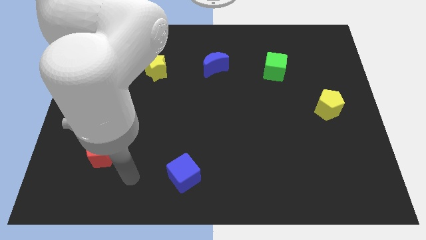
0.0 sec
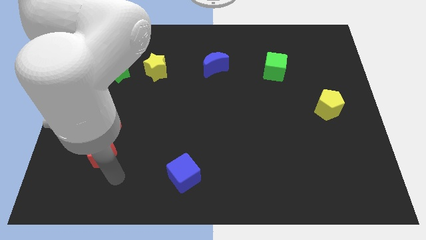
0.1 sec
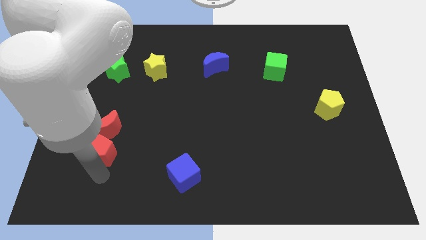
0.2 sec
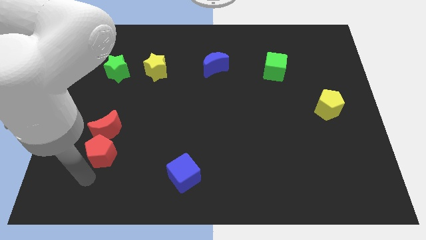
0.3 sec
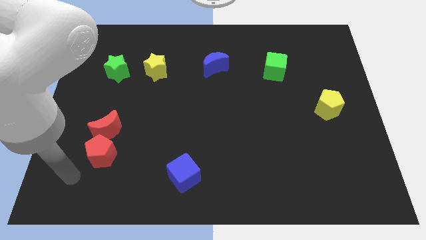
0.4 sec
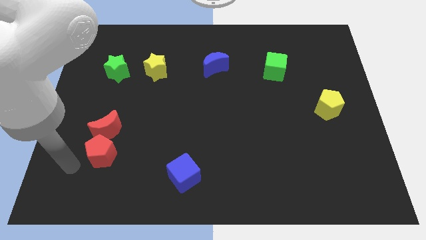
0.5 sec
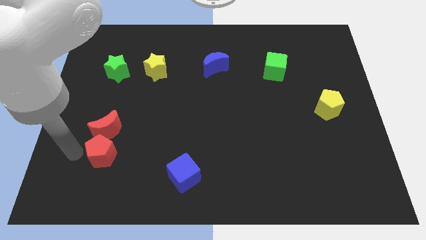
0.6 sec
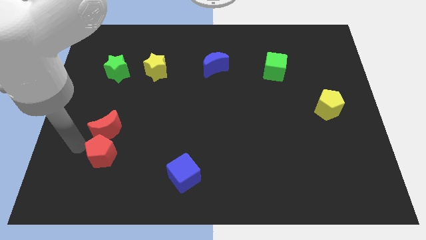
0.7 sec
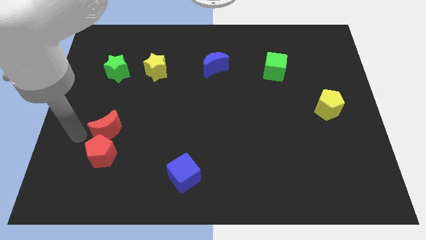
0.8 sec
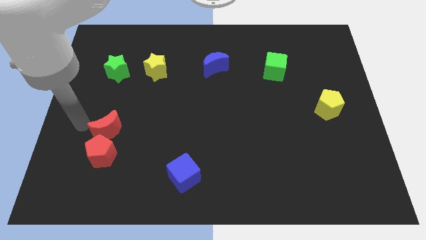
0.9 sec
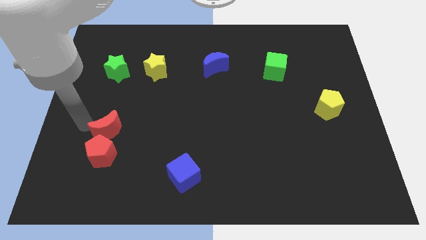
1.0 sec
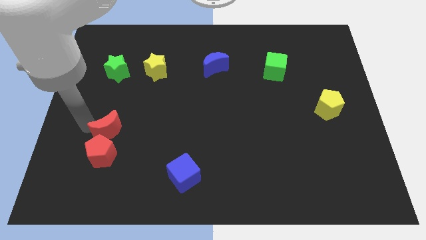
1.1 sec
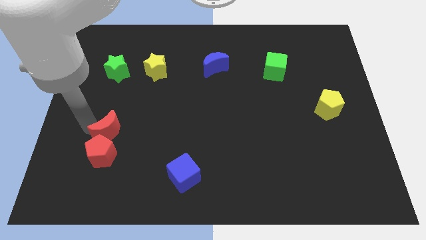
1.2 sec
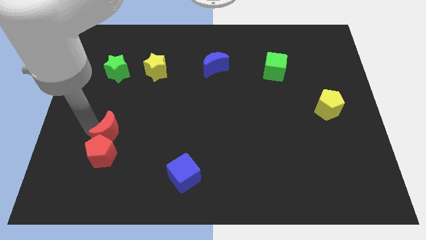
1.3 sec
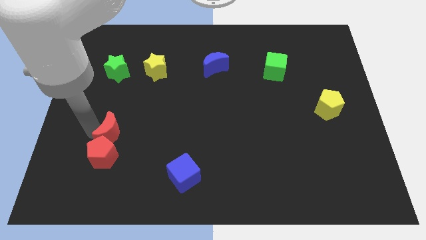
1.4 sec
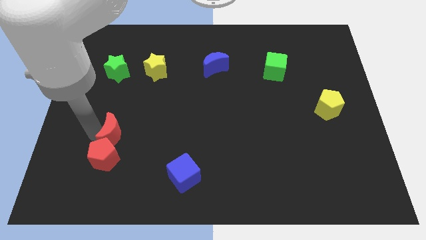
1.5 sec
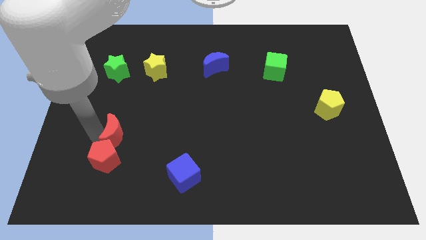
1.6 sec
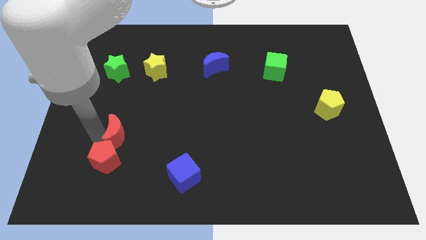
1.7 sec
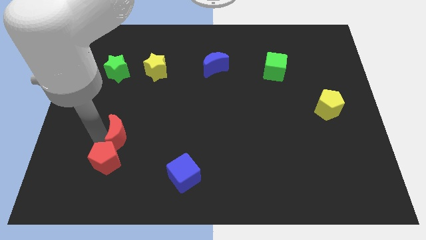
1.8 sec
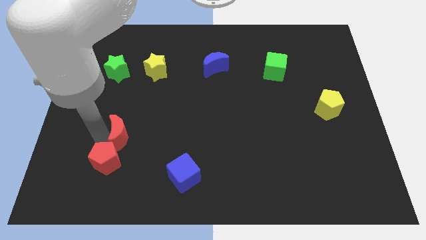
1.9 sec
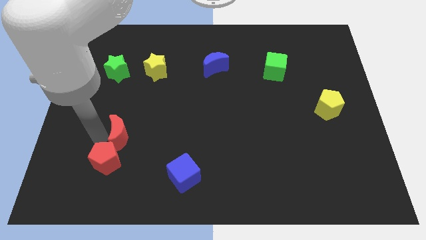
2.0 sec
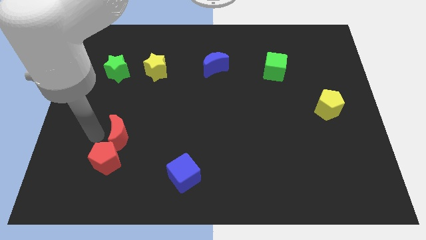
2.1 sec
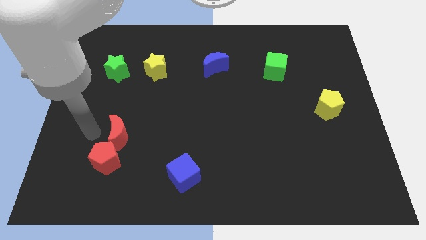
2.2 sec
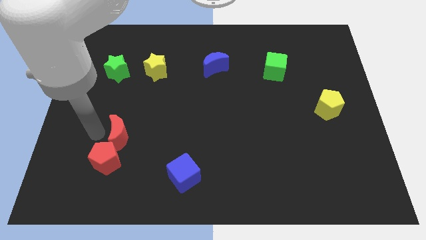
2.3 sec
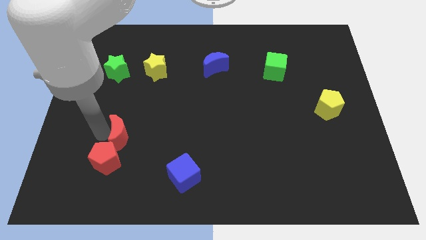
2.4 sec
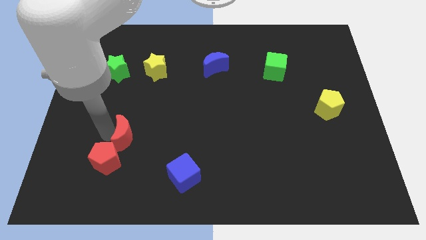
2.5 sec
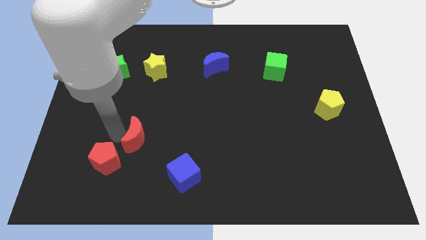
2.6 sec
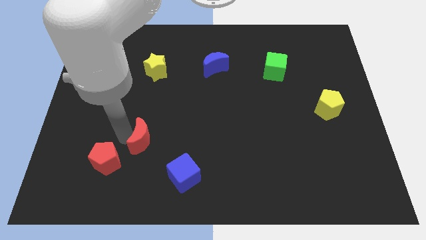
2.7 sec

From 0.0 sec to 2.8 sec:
slide the red moon slightly to the right

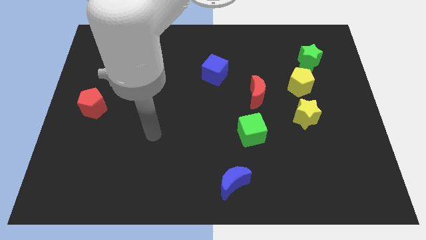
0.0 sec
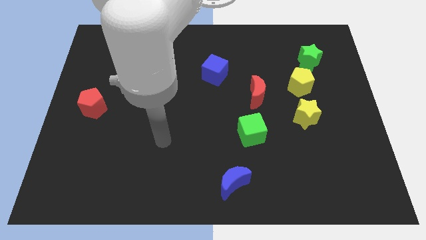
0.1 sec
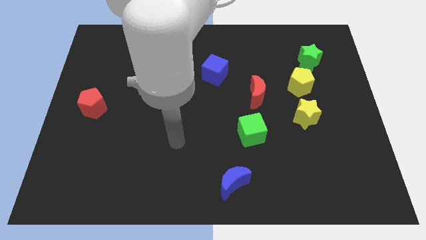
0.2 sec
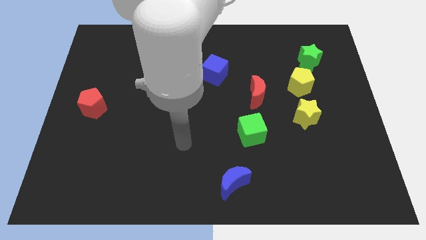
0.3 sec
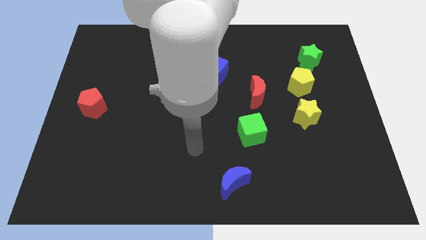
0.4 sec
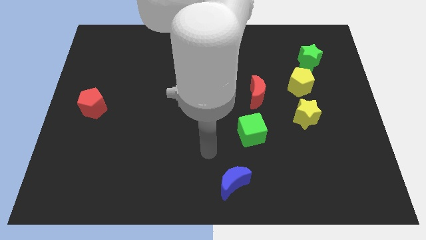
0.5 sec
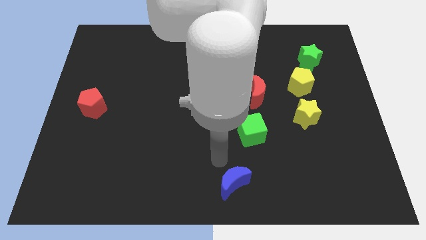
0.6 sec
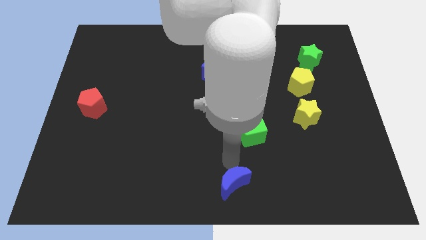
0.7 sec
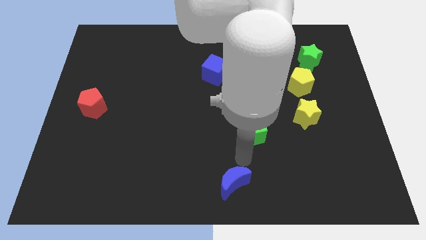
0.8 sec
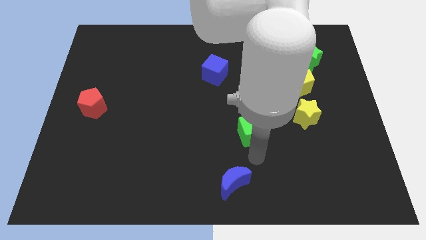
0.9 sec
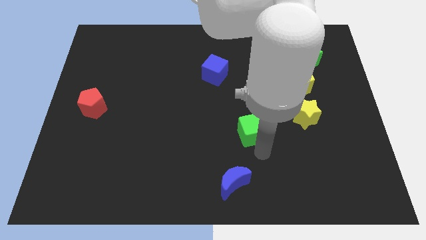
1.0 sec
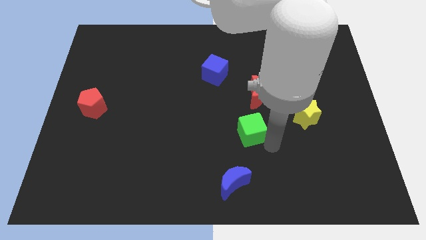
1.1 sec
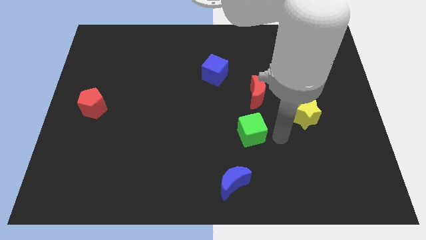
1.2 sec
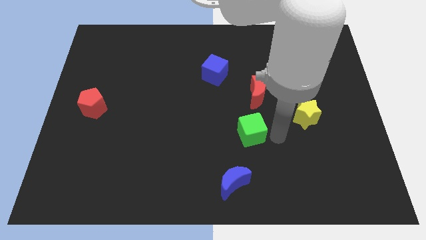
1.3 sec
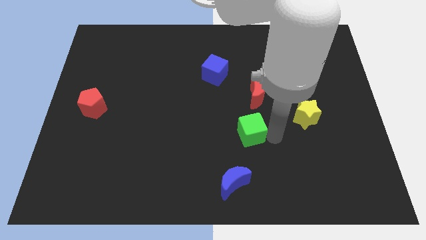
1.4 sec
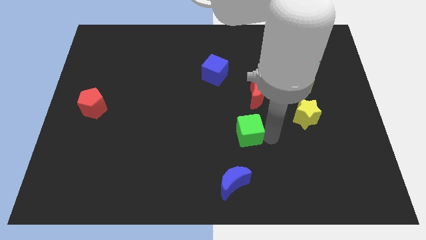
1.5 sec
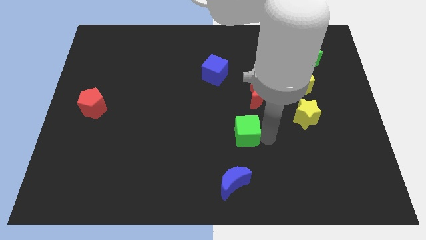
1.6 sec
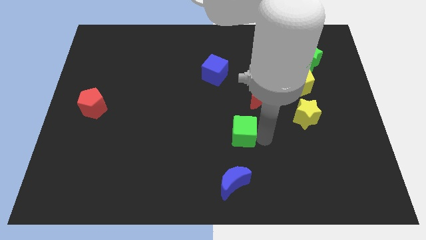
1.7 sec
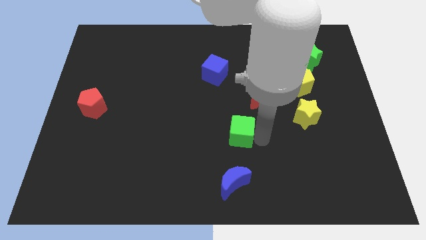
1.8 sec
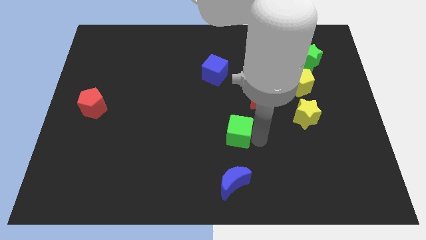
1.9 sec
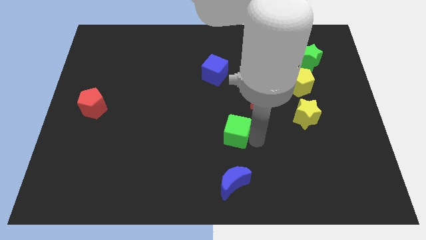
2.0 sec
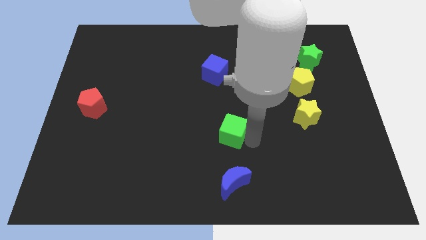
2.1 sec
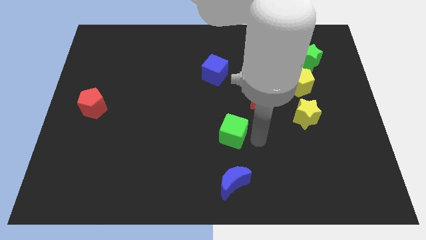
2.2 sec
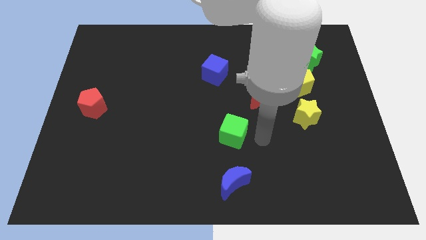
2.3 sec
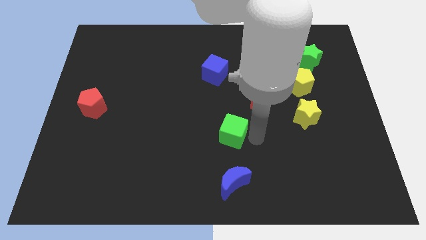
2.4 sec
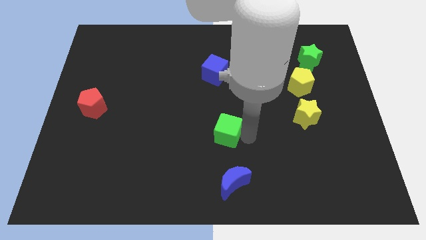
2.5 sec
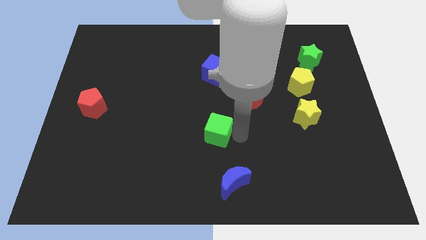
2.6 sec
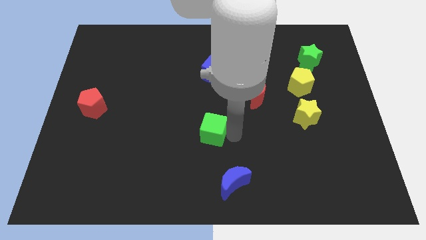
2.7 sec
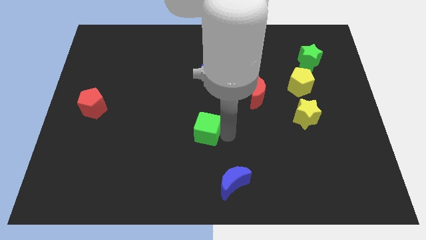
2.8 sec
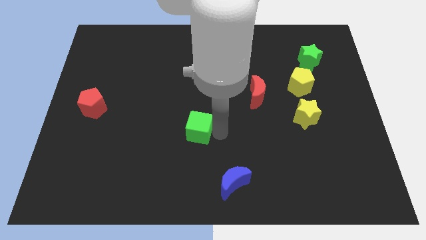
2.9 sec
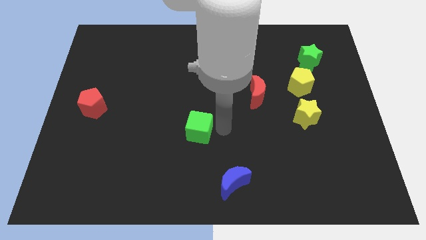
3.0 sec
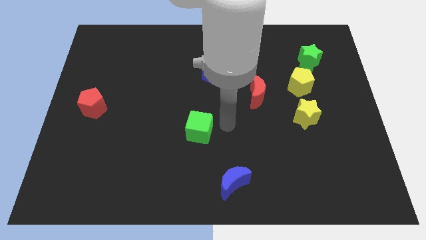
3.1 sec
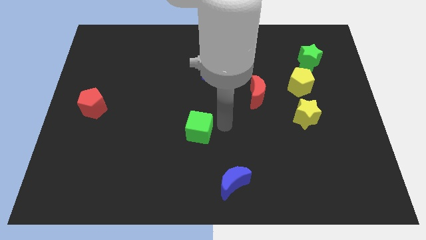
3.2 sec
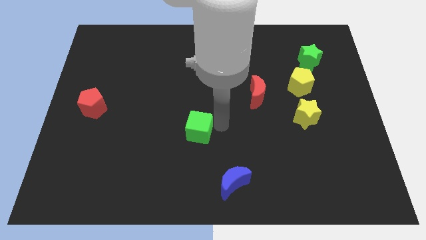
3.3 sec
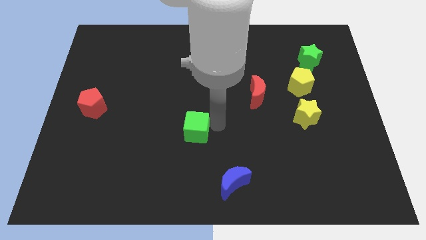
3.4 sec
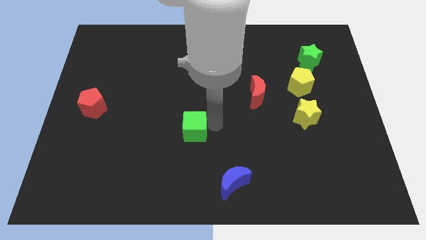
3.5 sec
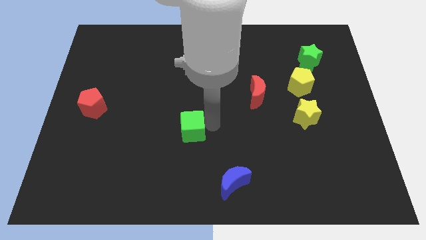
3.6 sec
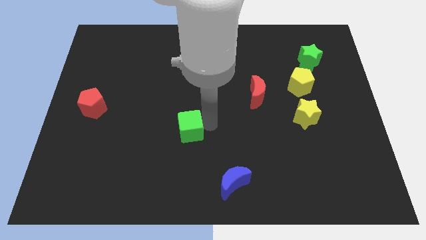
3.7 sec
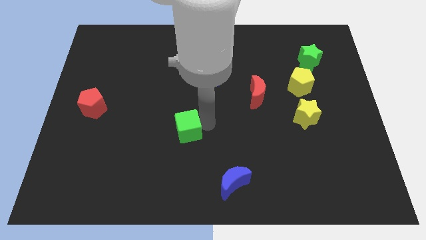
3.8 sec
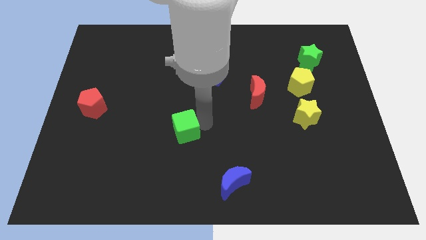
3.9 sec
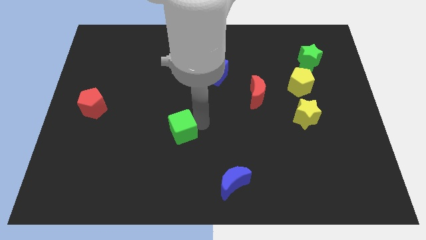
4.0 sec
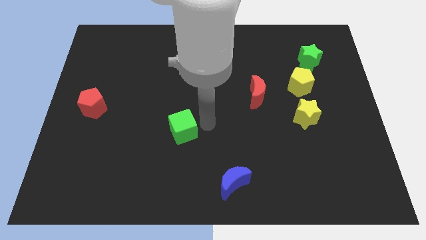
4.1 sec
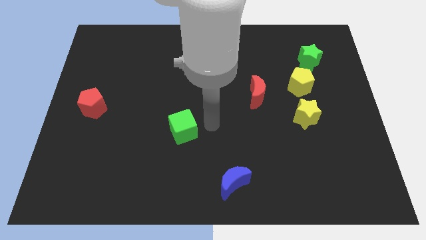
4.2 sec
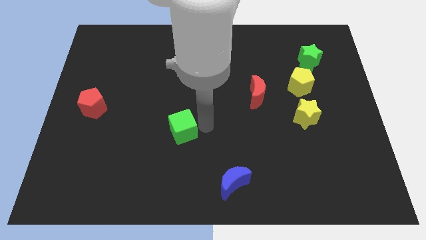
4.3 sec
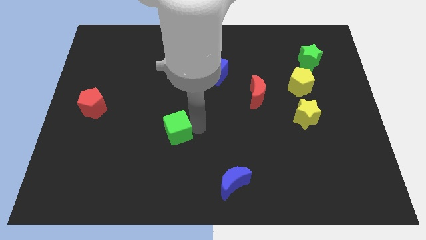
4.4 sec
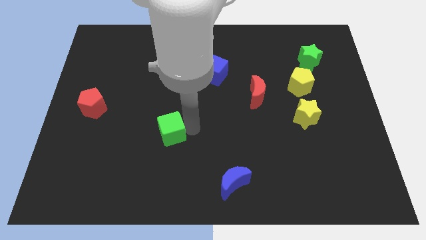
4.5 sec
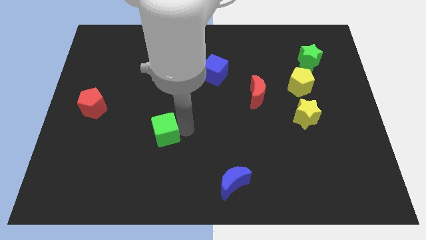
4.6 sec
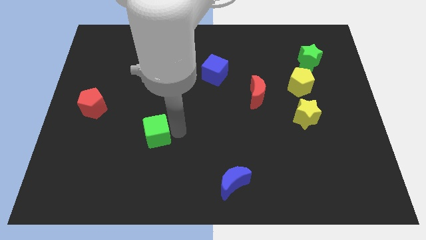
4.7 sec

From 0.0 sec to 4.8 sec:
slide the green cube to the left

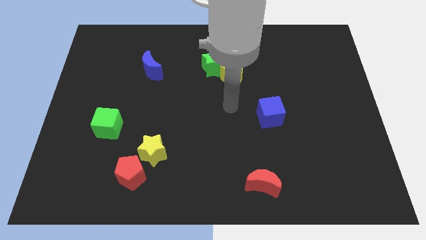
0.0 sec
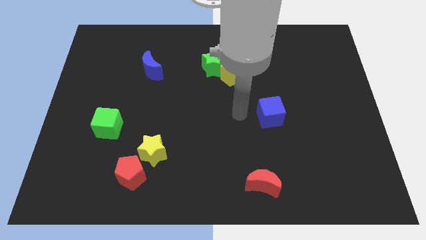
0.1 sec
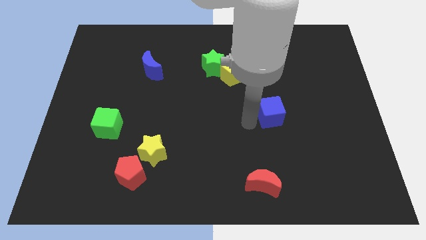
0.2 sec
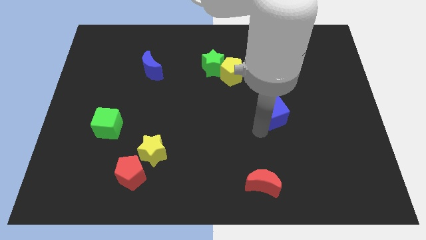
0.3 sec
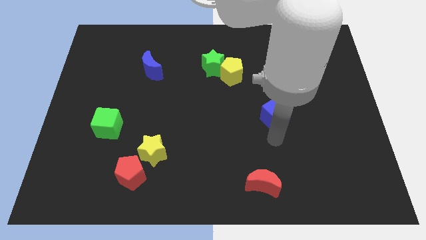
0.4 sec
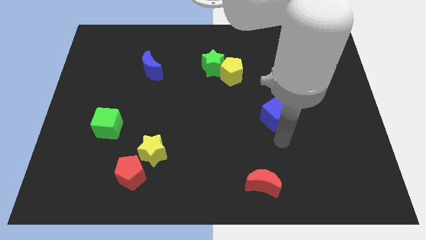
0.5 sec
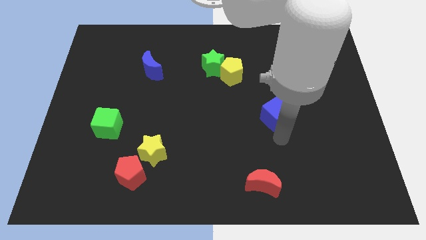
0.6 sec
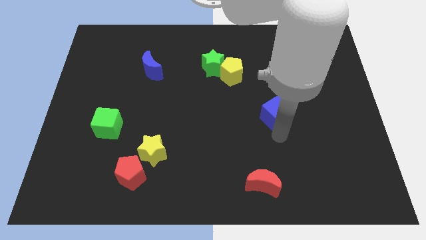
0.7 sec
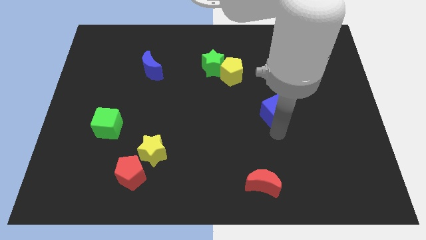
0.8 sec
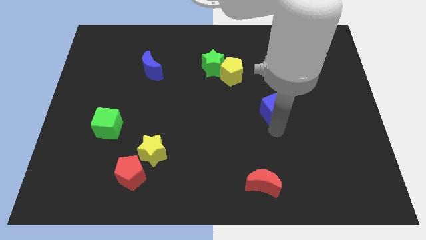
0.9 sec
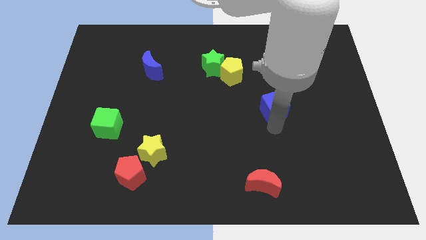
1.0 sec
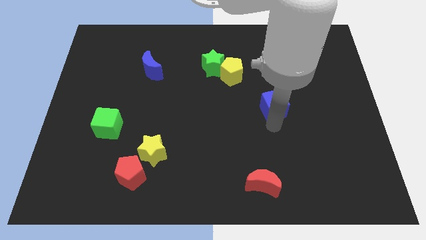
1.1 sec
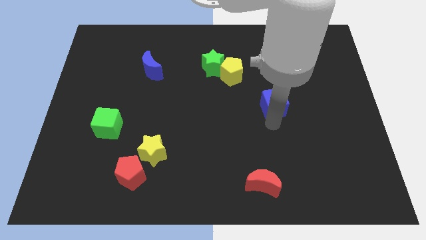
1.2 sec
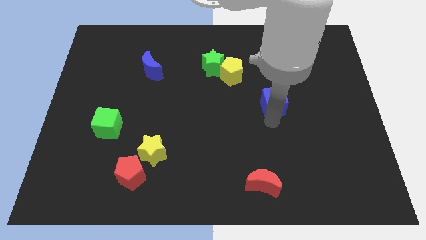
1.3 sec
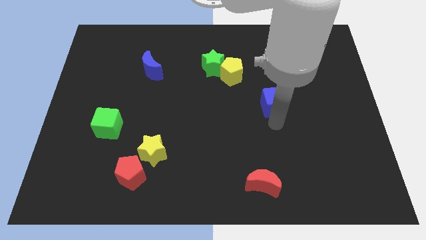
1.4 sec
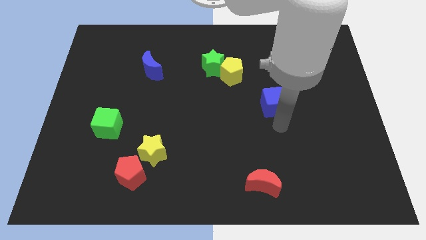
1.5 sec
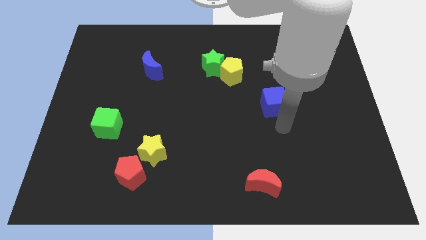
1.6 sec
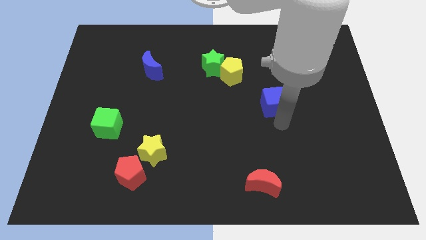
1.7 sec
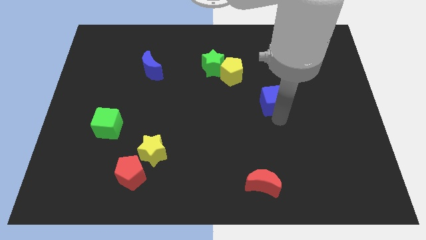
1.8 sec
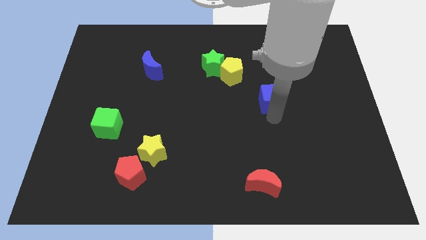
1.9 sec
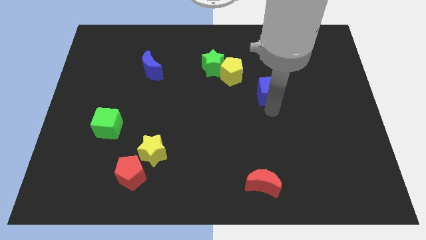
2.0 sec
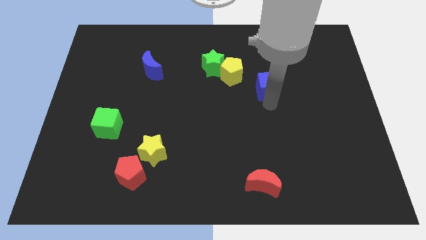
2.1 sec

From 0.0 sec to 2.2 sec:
slightly slide the blue cube up
